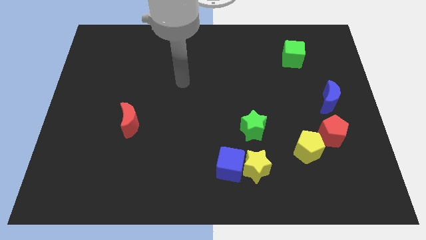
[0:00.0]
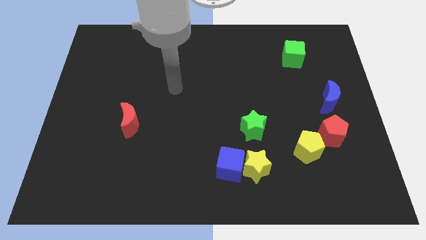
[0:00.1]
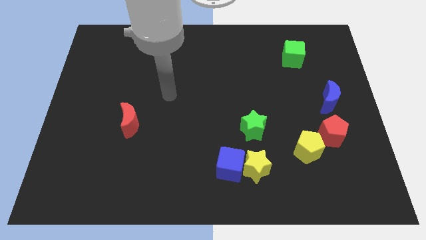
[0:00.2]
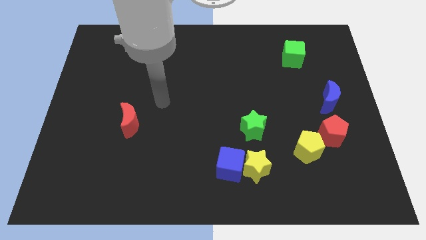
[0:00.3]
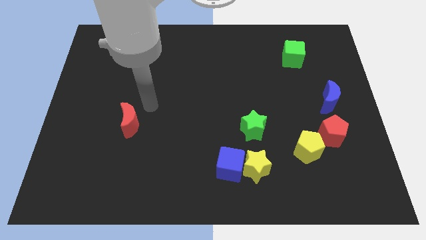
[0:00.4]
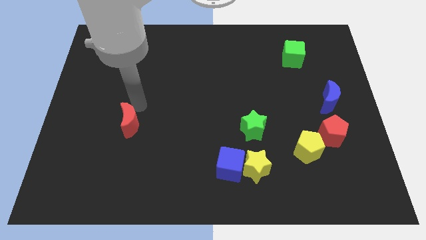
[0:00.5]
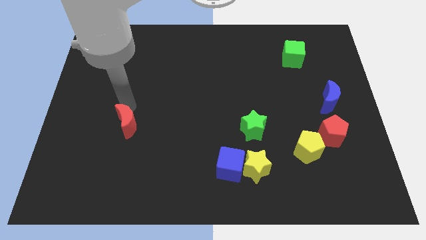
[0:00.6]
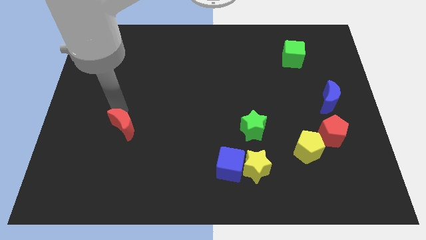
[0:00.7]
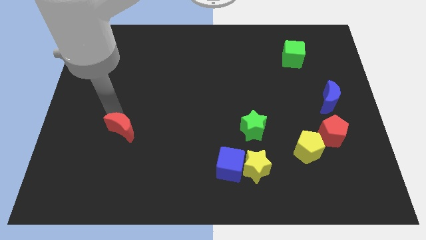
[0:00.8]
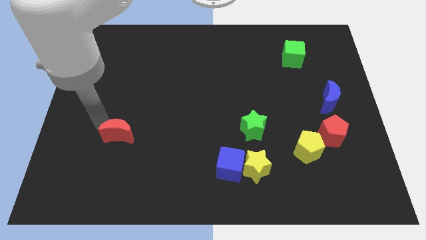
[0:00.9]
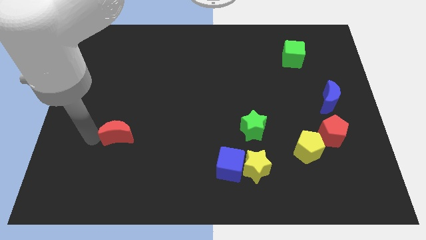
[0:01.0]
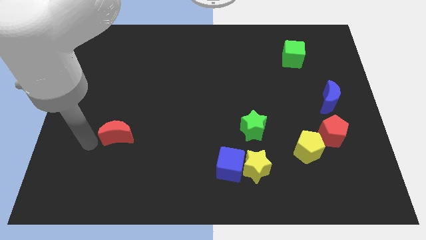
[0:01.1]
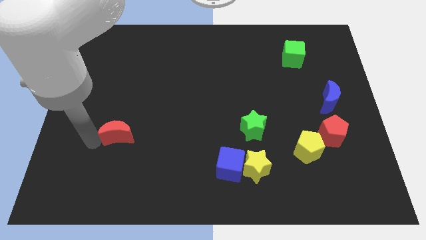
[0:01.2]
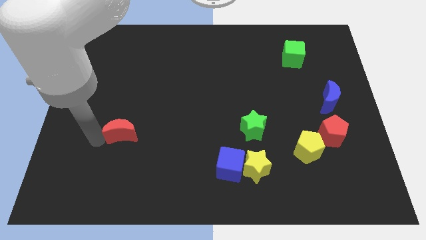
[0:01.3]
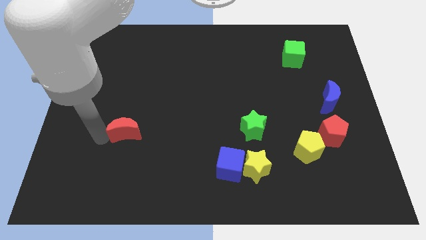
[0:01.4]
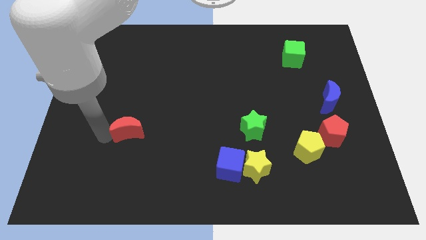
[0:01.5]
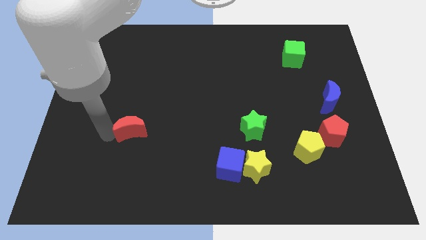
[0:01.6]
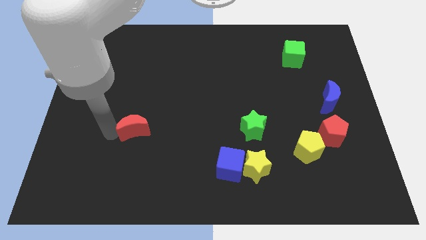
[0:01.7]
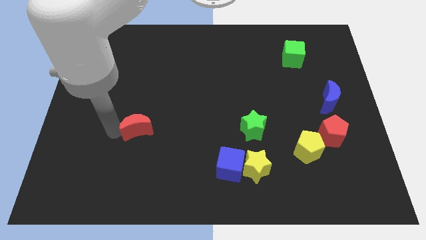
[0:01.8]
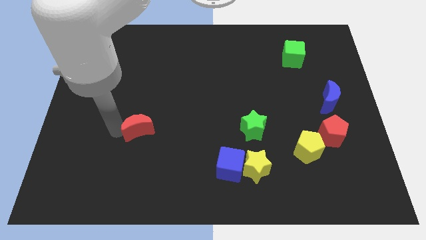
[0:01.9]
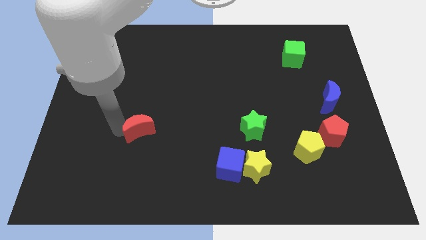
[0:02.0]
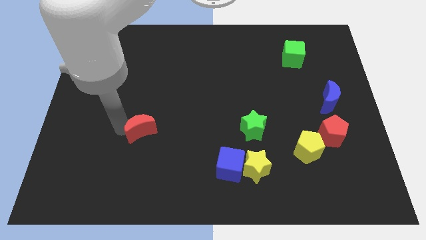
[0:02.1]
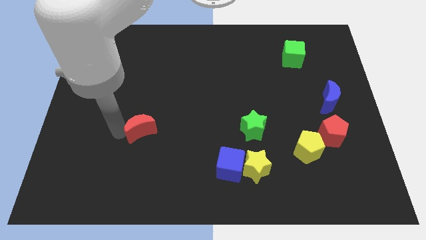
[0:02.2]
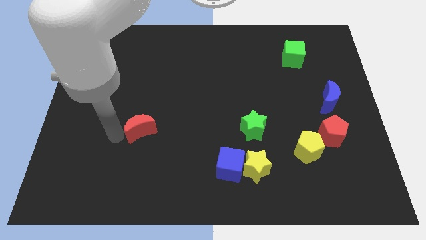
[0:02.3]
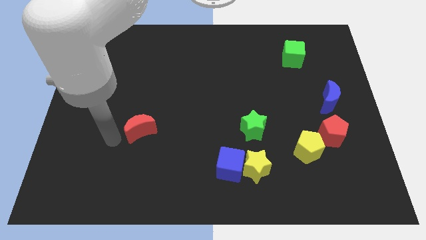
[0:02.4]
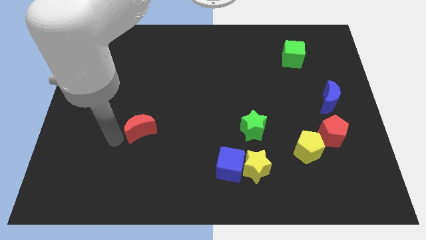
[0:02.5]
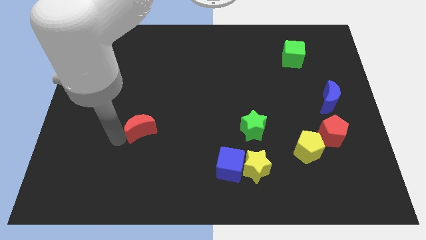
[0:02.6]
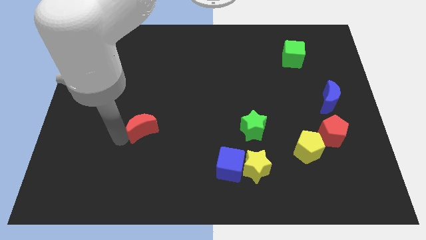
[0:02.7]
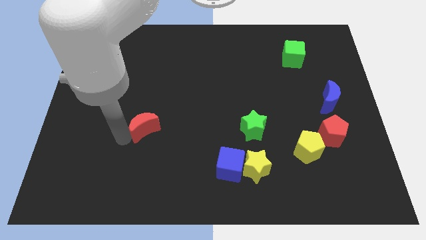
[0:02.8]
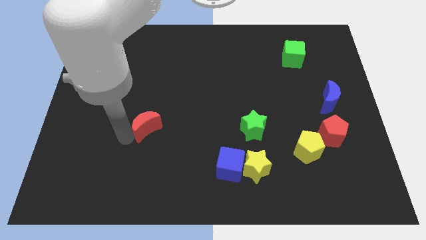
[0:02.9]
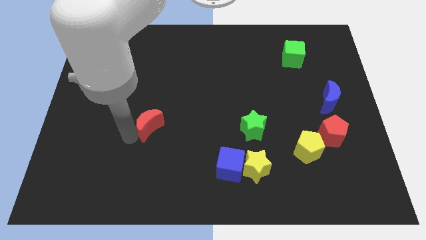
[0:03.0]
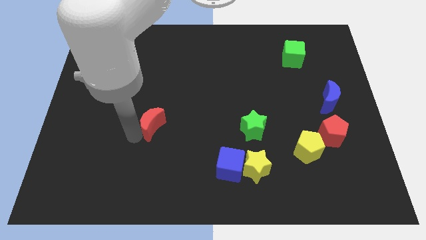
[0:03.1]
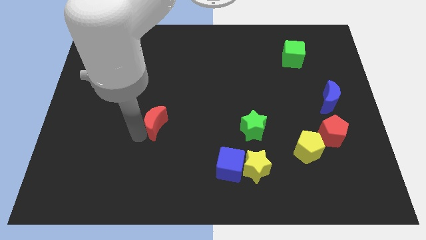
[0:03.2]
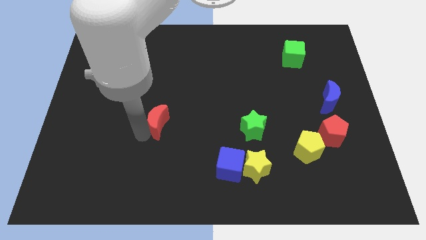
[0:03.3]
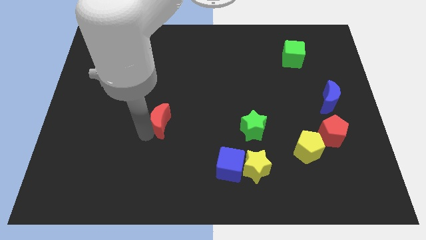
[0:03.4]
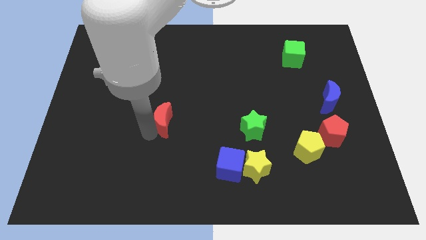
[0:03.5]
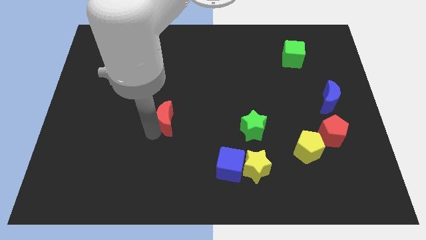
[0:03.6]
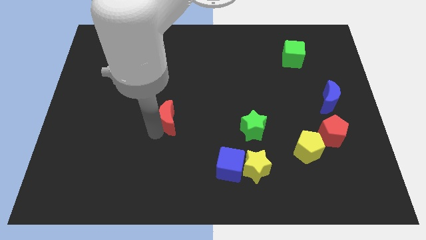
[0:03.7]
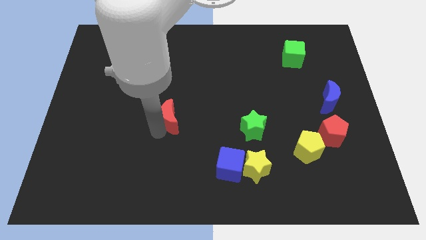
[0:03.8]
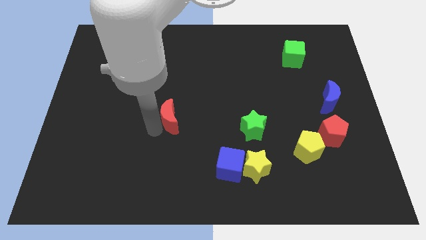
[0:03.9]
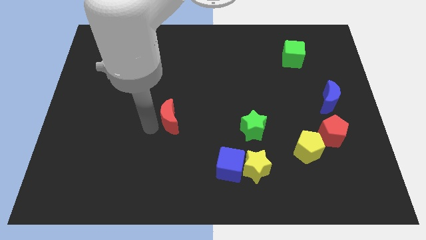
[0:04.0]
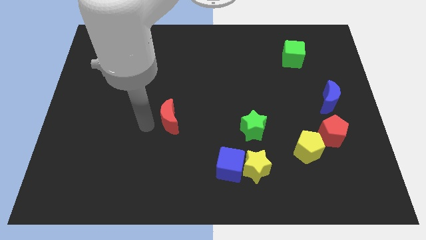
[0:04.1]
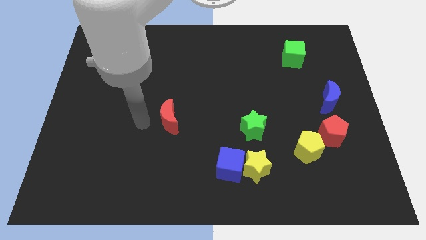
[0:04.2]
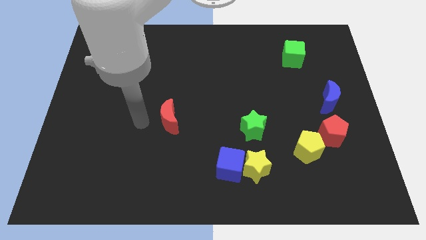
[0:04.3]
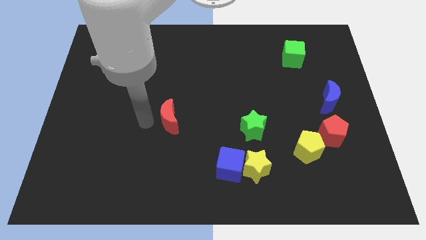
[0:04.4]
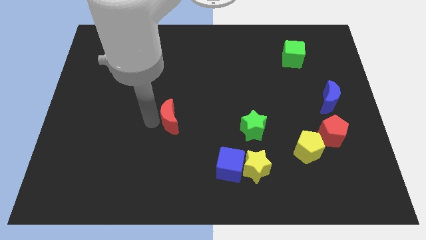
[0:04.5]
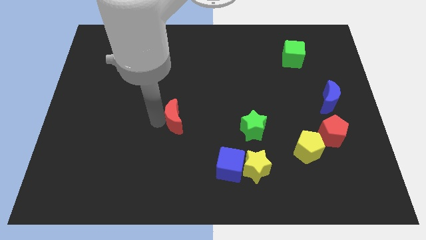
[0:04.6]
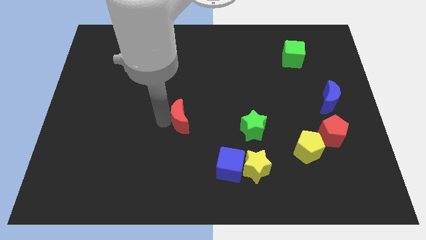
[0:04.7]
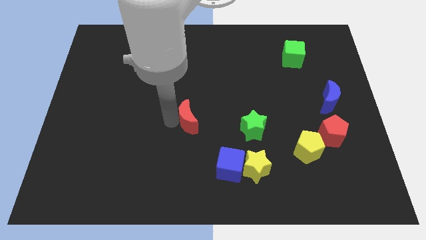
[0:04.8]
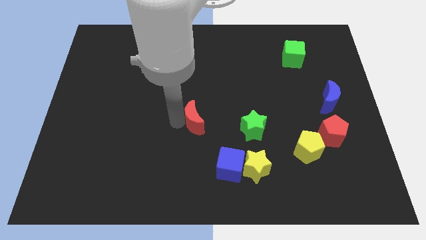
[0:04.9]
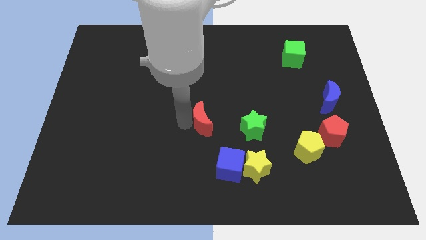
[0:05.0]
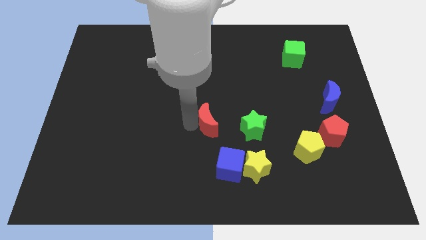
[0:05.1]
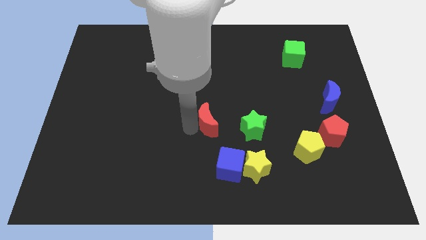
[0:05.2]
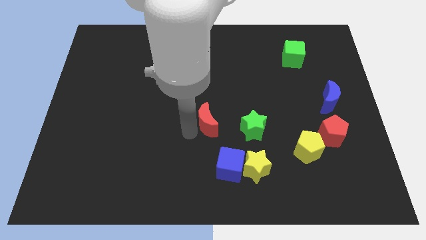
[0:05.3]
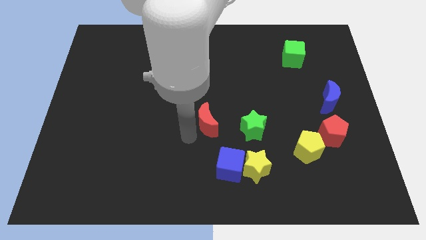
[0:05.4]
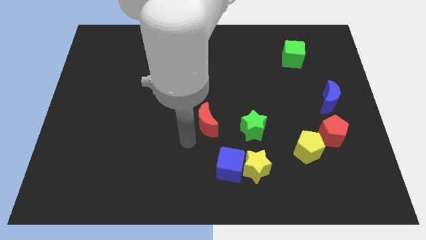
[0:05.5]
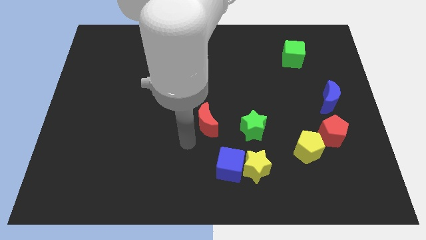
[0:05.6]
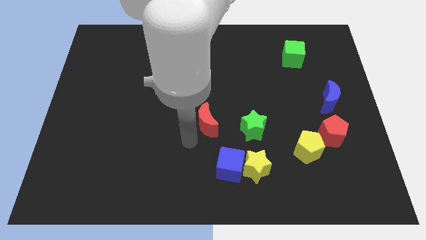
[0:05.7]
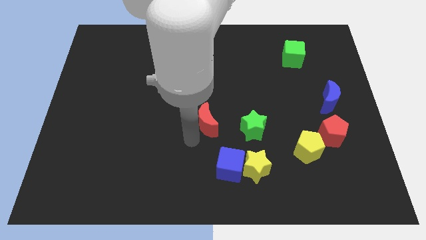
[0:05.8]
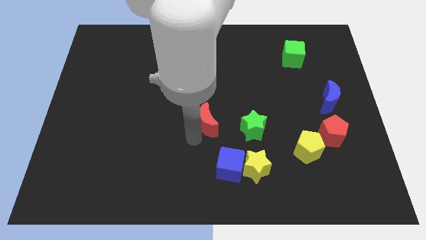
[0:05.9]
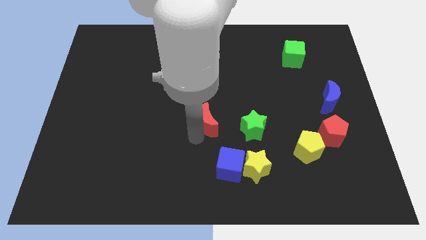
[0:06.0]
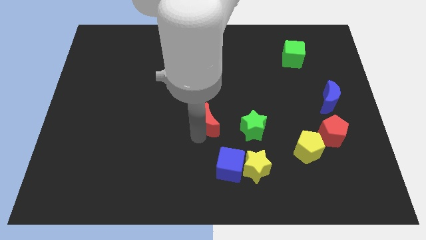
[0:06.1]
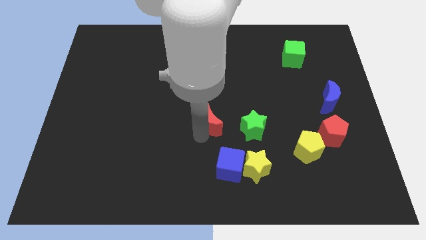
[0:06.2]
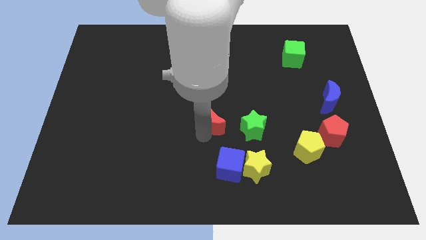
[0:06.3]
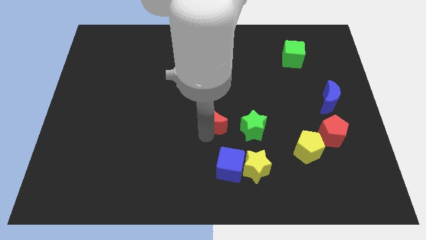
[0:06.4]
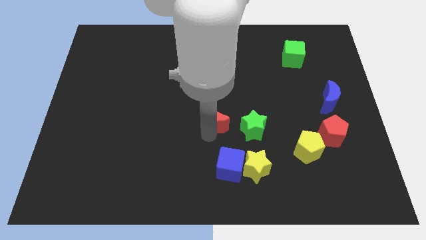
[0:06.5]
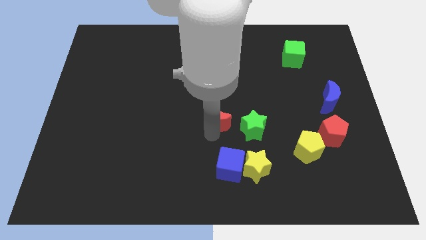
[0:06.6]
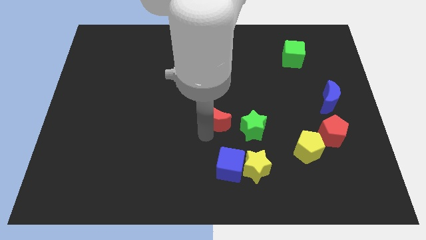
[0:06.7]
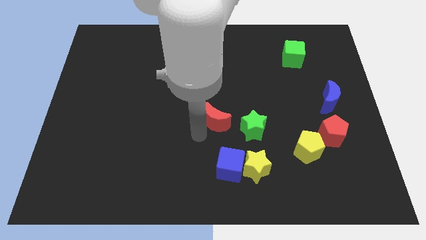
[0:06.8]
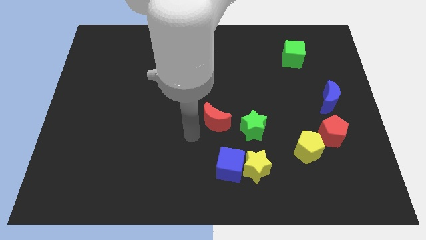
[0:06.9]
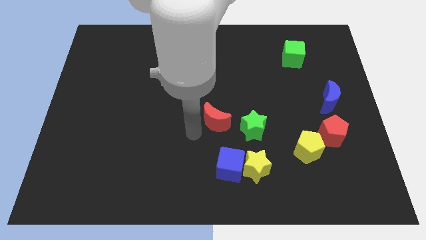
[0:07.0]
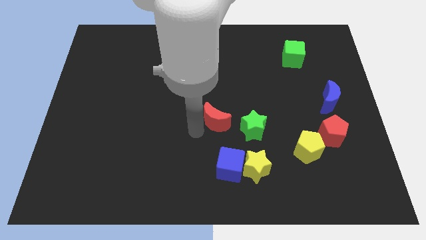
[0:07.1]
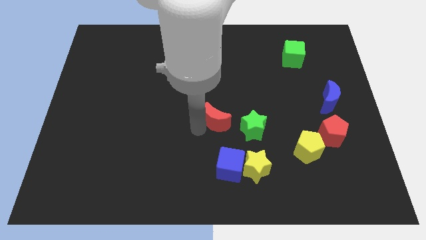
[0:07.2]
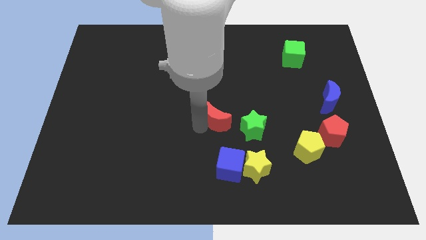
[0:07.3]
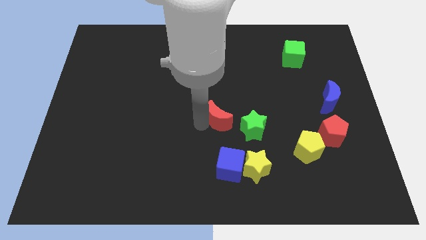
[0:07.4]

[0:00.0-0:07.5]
push the red moon right

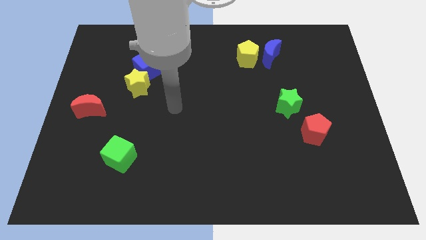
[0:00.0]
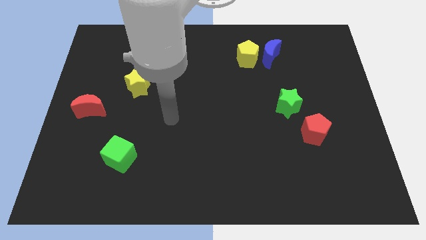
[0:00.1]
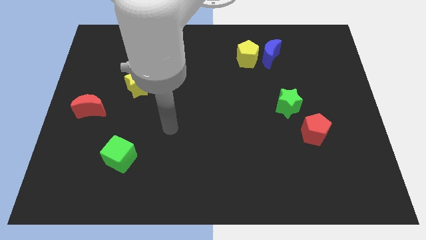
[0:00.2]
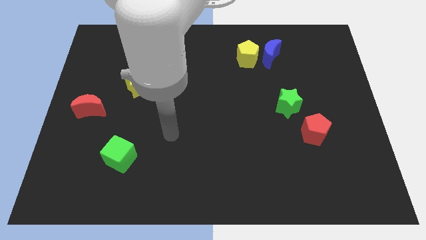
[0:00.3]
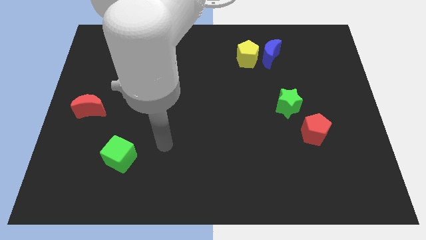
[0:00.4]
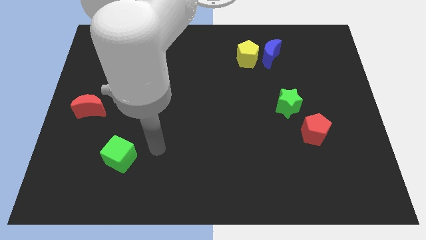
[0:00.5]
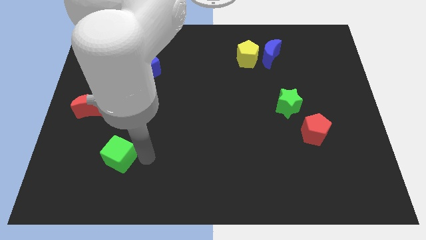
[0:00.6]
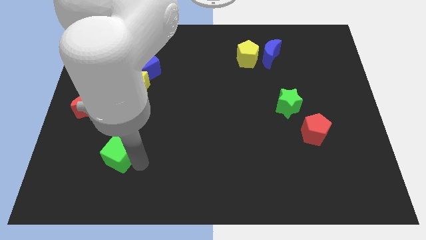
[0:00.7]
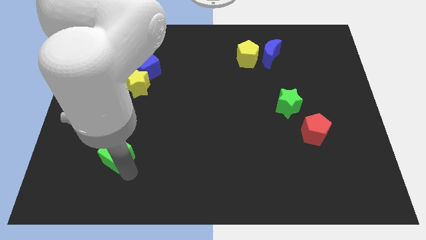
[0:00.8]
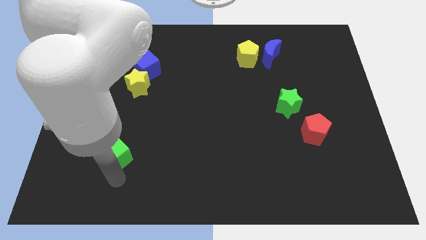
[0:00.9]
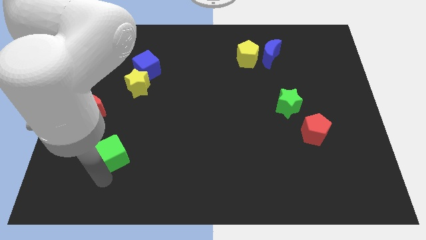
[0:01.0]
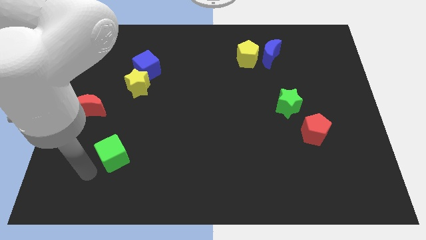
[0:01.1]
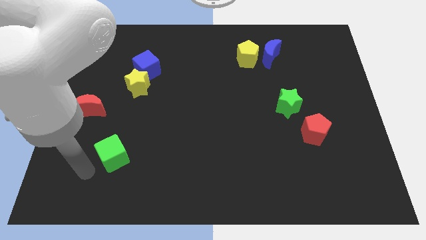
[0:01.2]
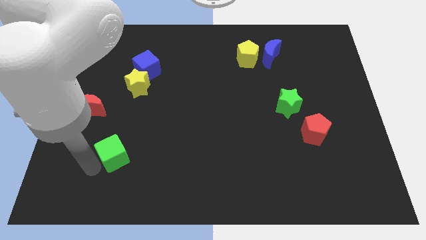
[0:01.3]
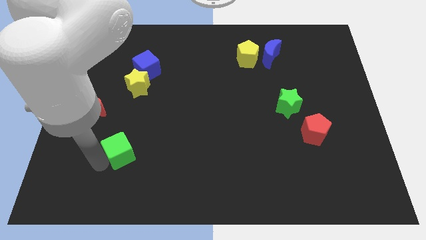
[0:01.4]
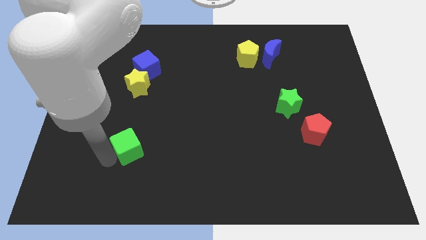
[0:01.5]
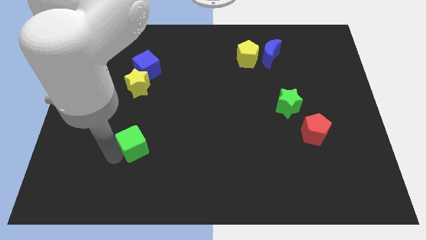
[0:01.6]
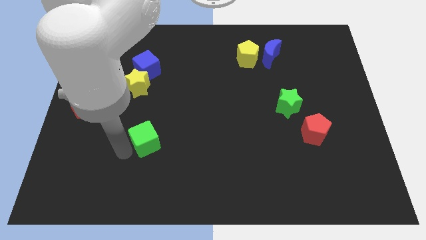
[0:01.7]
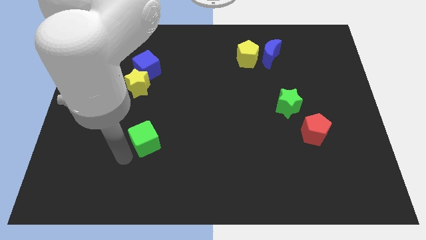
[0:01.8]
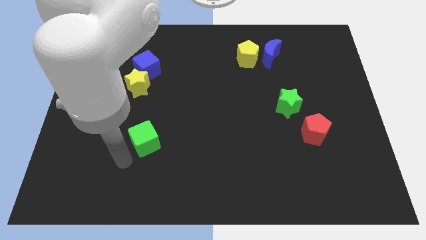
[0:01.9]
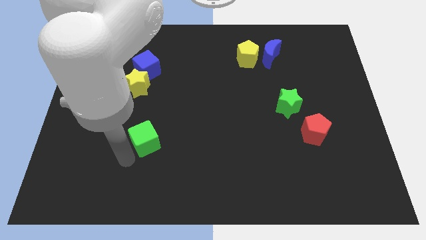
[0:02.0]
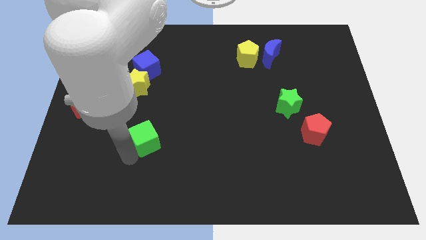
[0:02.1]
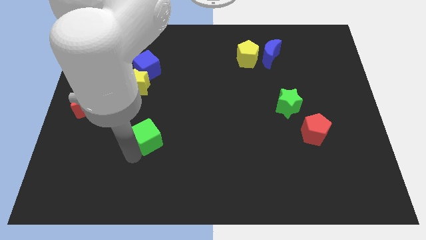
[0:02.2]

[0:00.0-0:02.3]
slide the green cube upwards and then to the right a little
